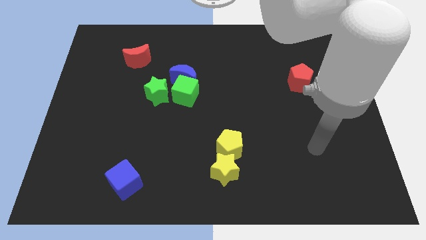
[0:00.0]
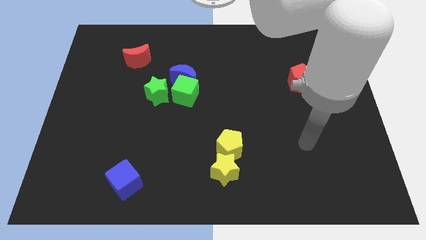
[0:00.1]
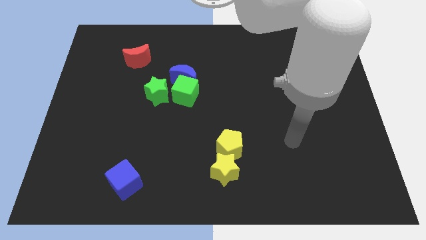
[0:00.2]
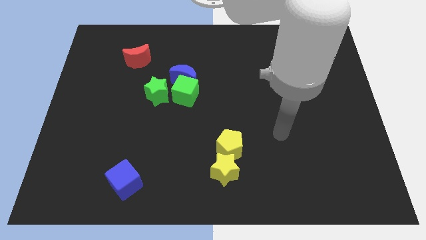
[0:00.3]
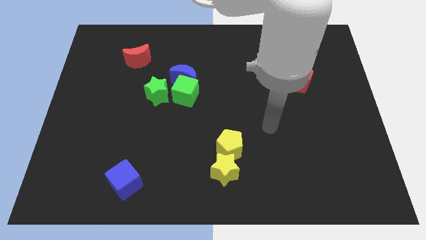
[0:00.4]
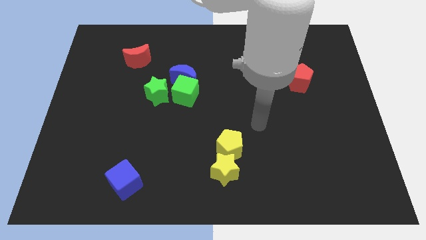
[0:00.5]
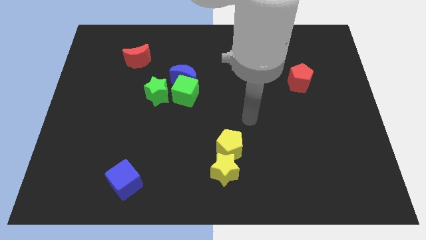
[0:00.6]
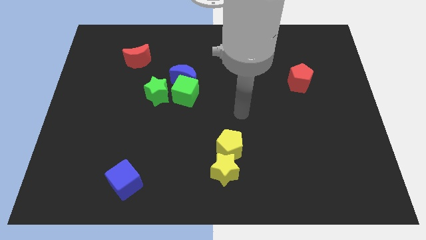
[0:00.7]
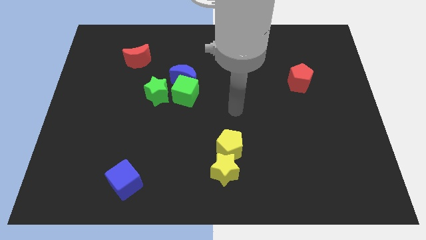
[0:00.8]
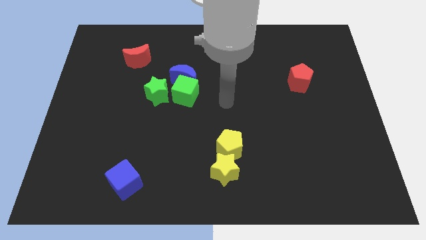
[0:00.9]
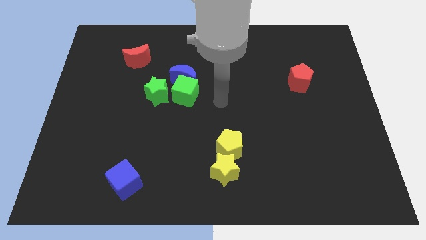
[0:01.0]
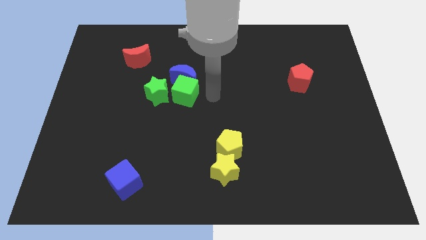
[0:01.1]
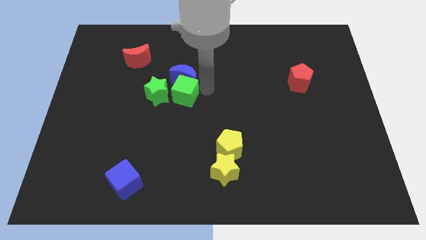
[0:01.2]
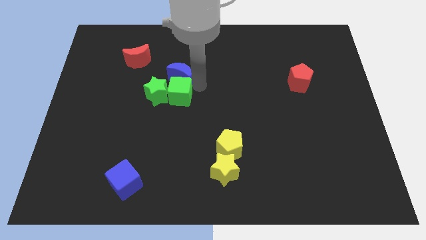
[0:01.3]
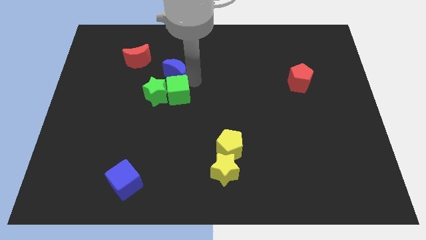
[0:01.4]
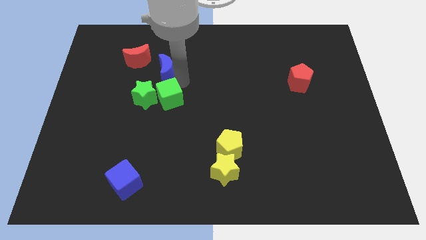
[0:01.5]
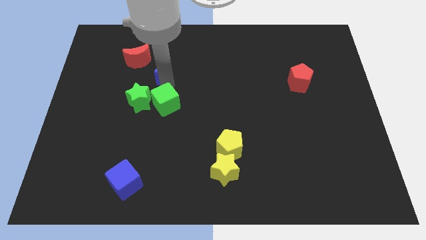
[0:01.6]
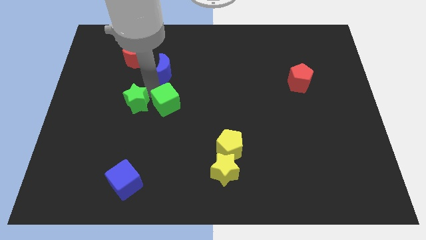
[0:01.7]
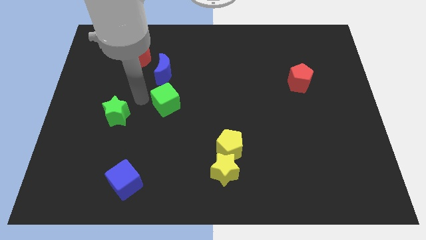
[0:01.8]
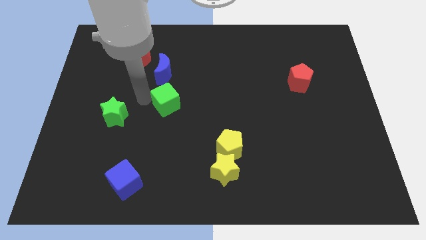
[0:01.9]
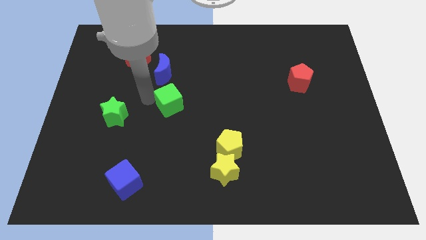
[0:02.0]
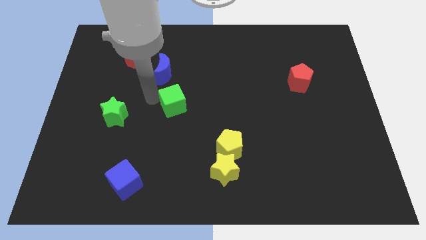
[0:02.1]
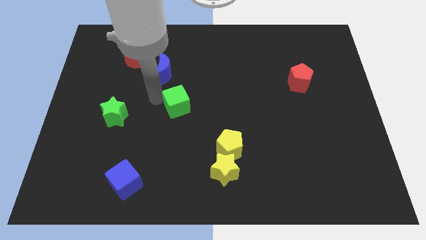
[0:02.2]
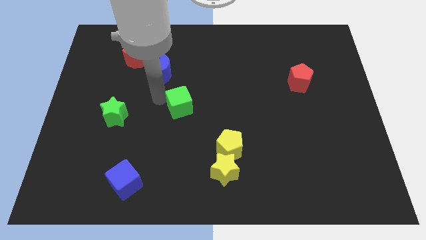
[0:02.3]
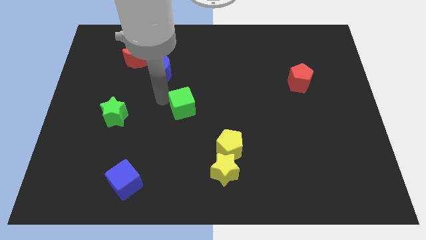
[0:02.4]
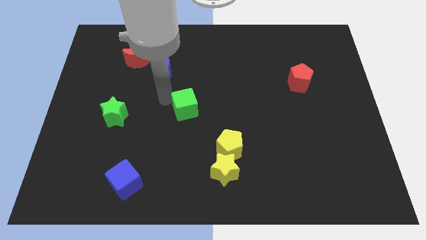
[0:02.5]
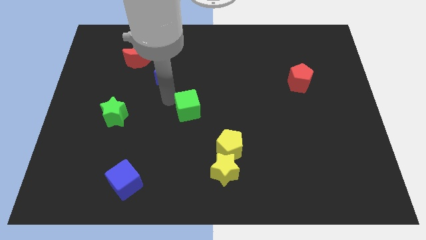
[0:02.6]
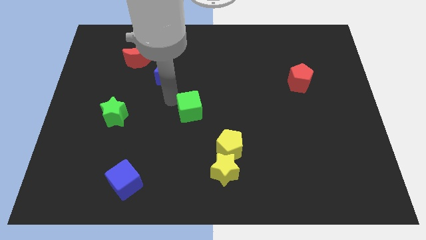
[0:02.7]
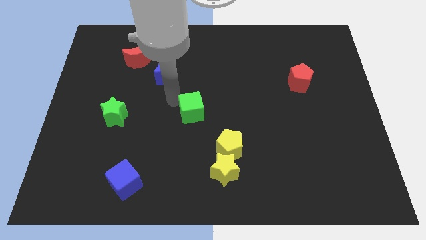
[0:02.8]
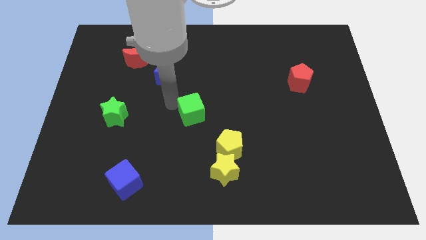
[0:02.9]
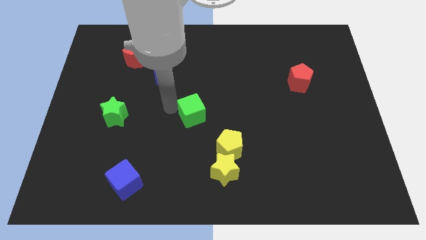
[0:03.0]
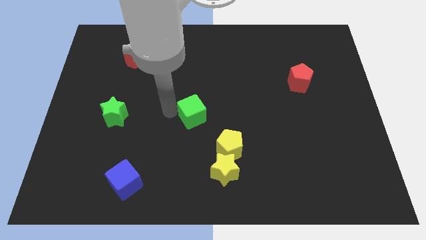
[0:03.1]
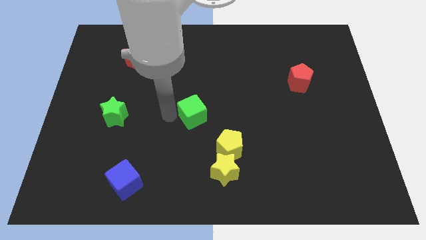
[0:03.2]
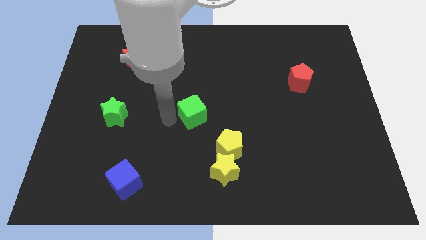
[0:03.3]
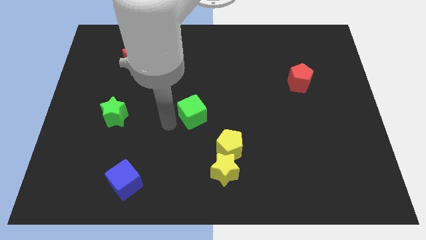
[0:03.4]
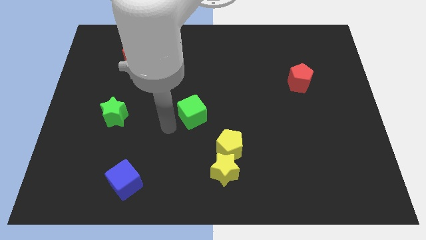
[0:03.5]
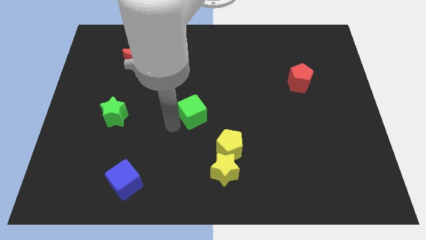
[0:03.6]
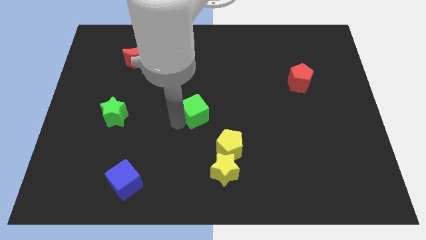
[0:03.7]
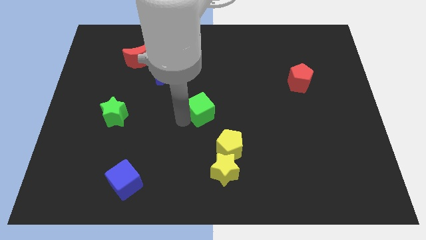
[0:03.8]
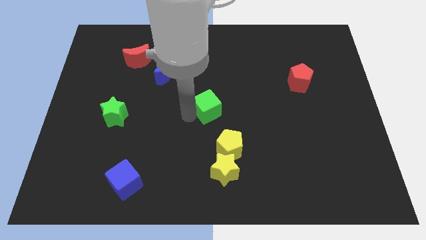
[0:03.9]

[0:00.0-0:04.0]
slightly slide the green cube downwards and to the right diagonally

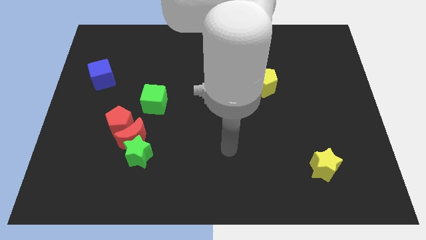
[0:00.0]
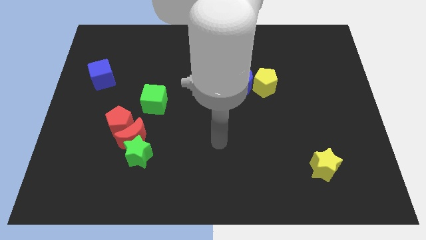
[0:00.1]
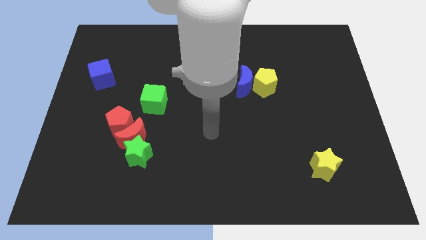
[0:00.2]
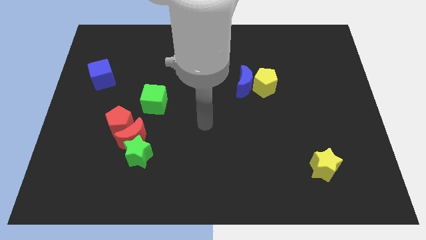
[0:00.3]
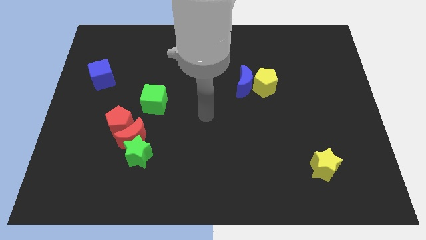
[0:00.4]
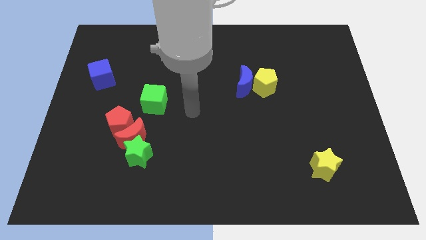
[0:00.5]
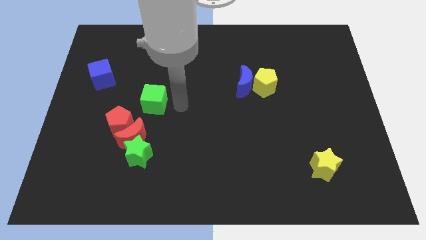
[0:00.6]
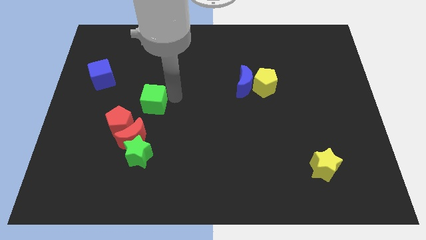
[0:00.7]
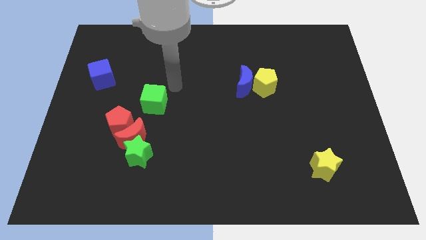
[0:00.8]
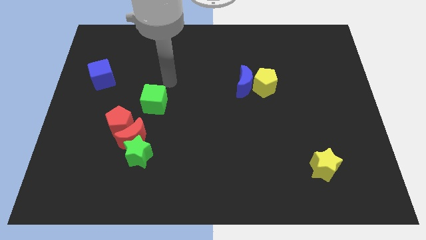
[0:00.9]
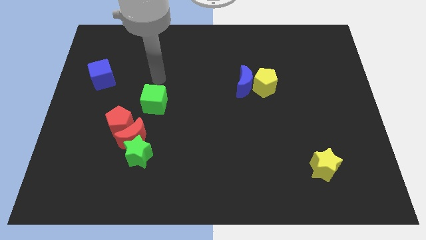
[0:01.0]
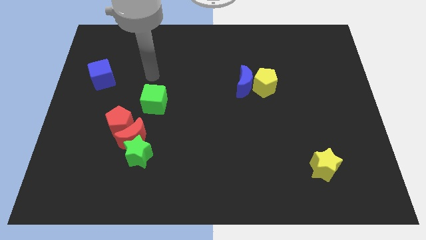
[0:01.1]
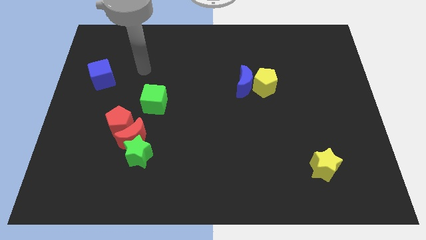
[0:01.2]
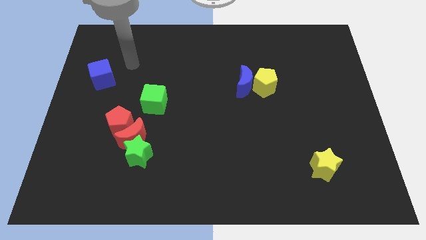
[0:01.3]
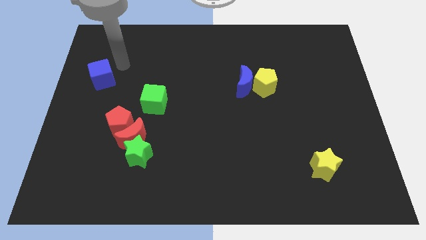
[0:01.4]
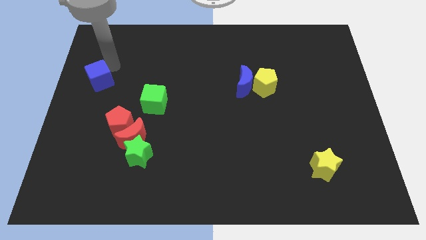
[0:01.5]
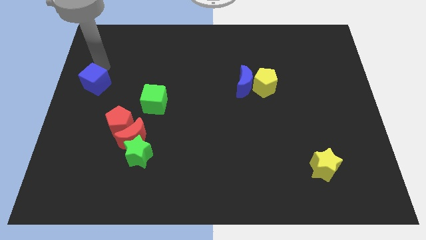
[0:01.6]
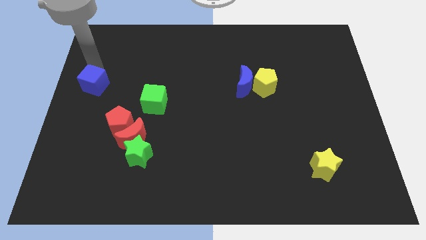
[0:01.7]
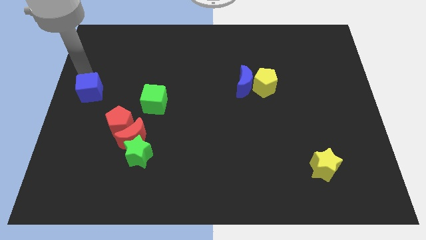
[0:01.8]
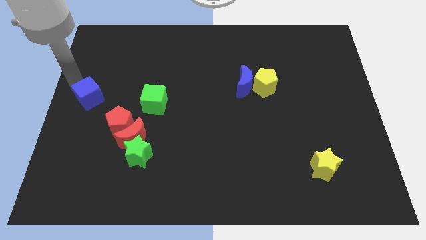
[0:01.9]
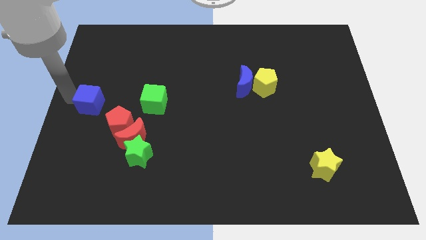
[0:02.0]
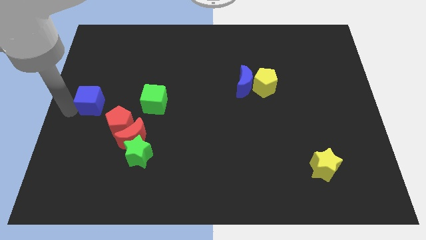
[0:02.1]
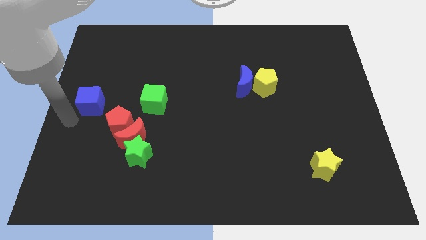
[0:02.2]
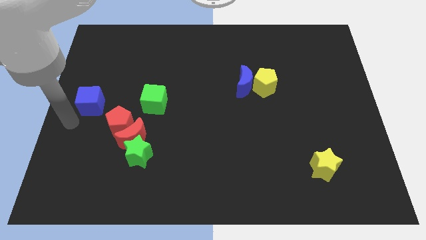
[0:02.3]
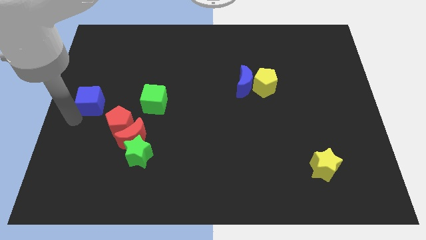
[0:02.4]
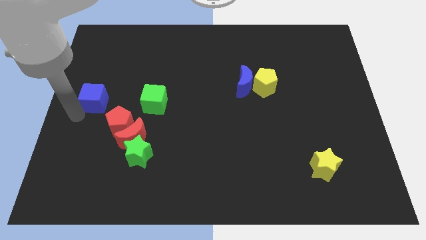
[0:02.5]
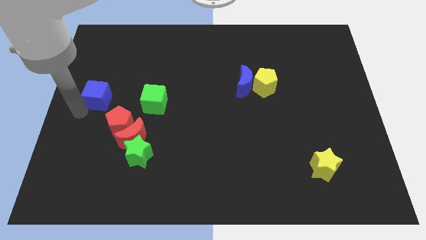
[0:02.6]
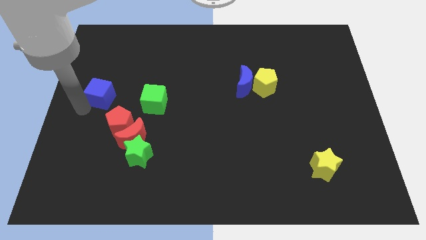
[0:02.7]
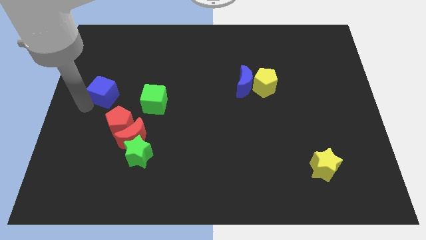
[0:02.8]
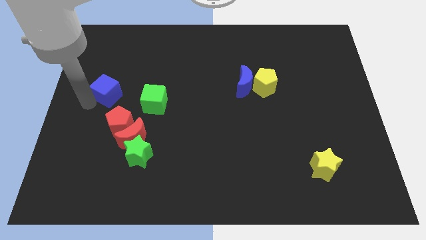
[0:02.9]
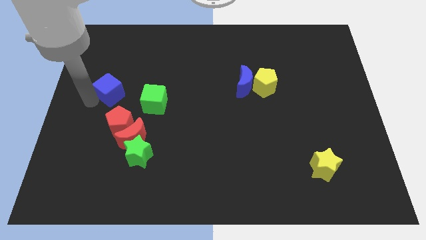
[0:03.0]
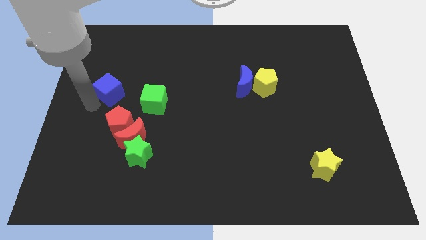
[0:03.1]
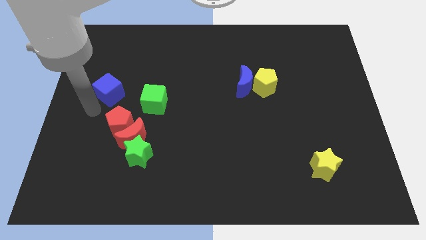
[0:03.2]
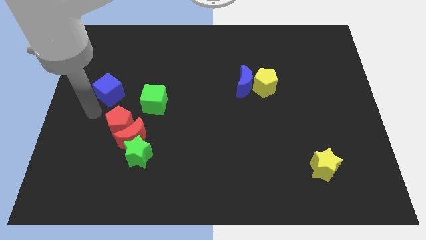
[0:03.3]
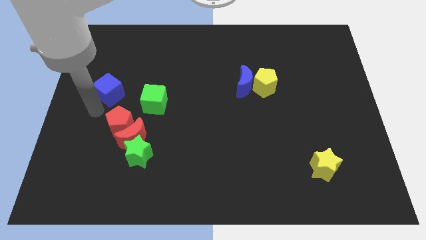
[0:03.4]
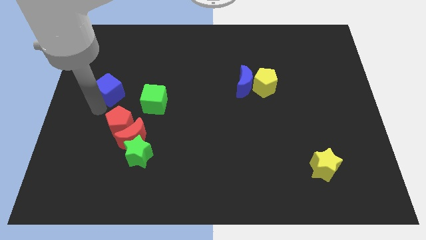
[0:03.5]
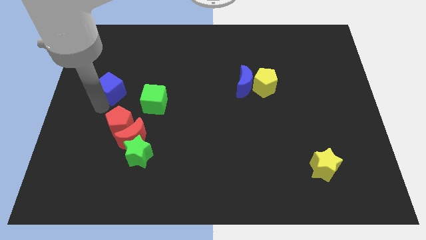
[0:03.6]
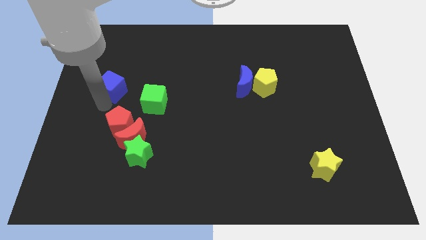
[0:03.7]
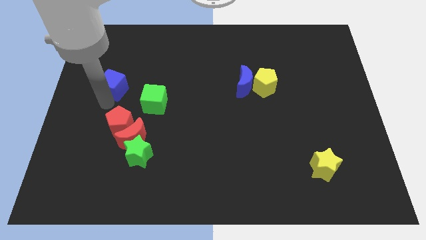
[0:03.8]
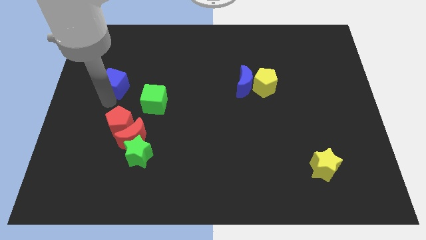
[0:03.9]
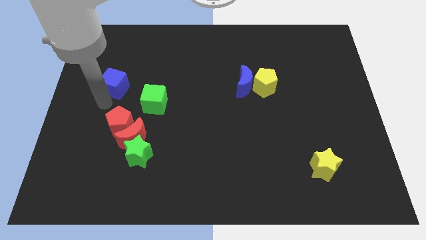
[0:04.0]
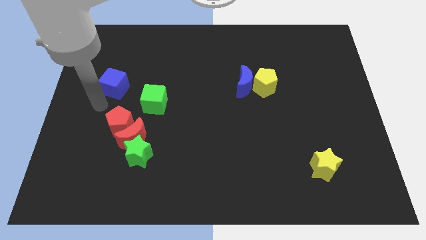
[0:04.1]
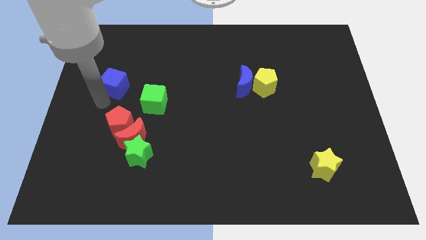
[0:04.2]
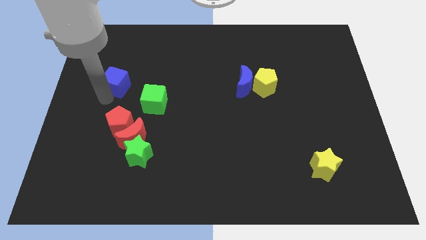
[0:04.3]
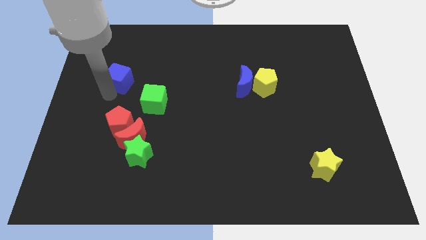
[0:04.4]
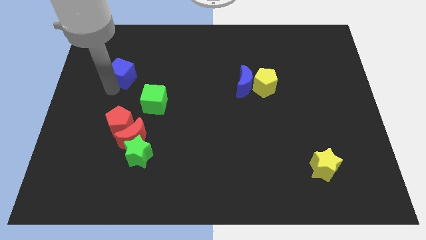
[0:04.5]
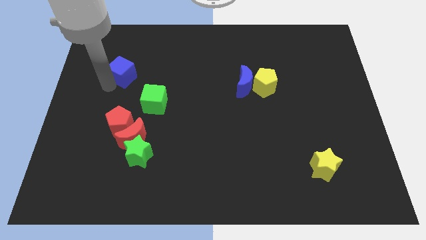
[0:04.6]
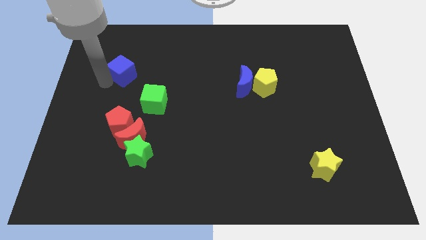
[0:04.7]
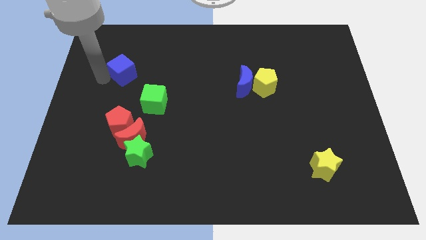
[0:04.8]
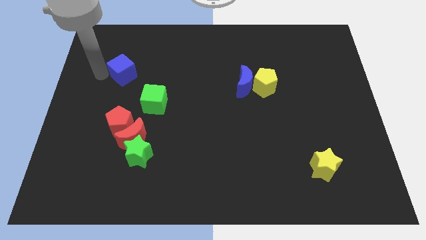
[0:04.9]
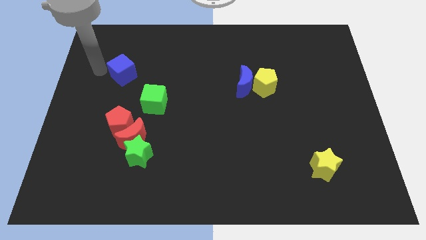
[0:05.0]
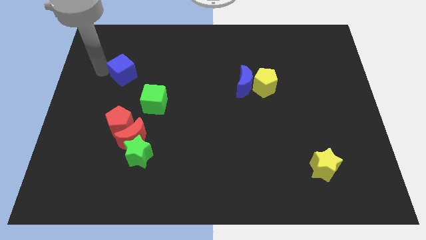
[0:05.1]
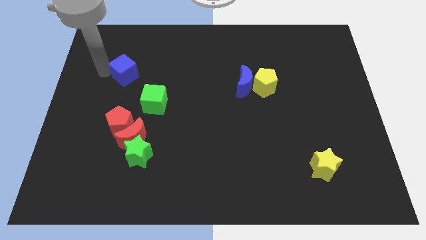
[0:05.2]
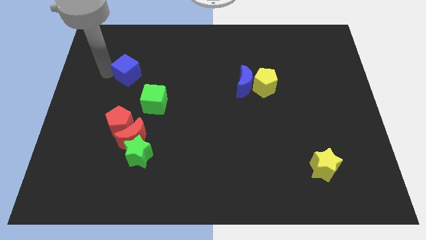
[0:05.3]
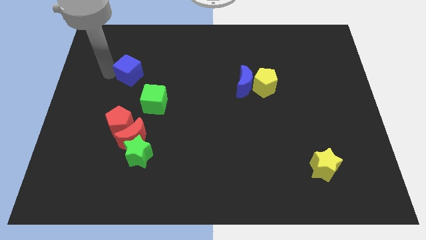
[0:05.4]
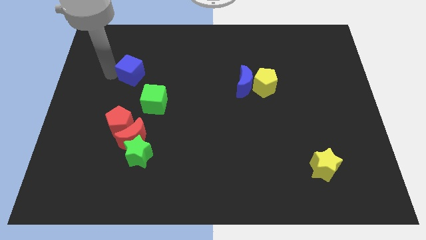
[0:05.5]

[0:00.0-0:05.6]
slightly move the blue cube to the right
